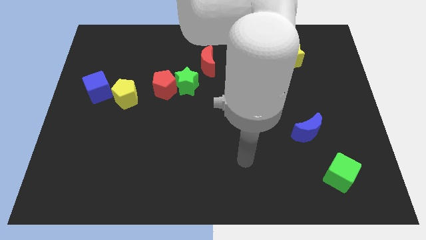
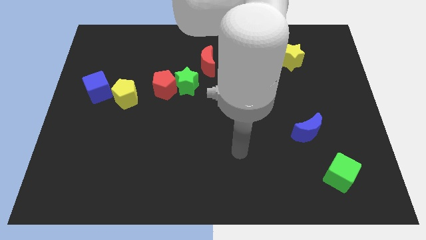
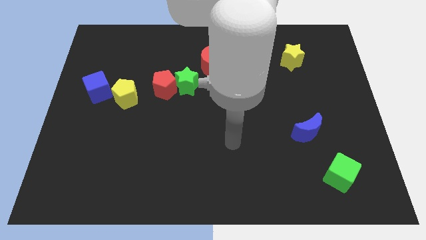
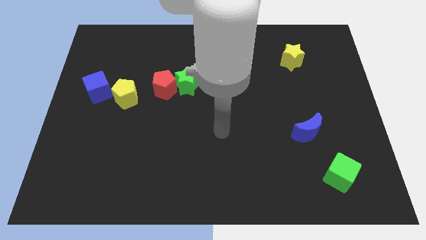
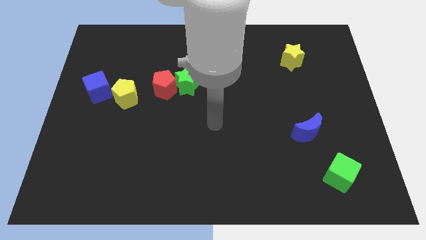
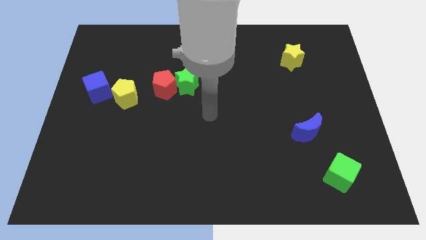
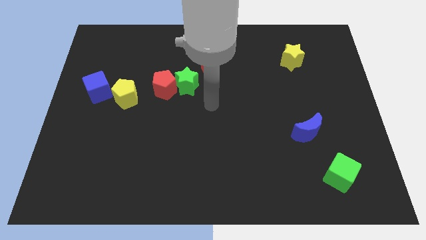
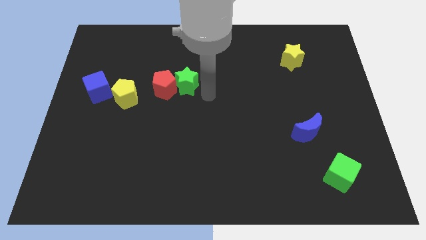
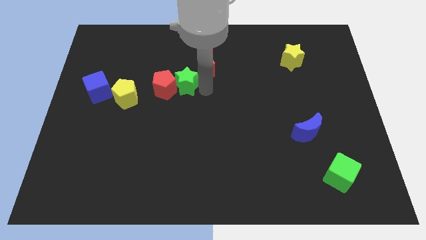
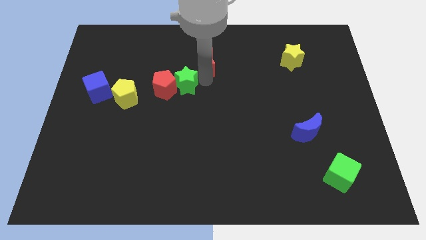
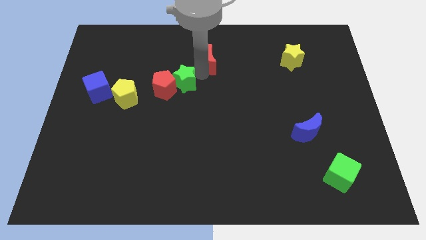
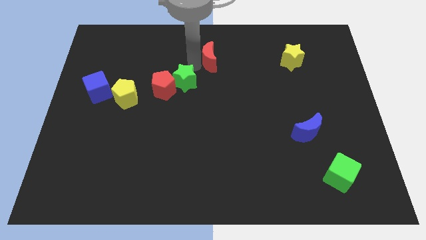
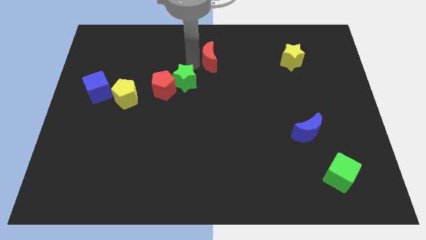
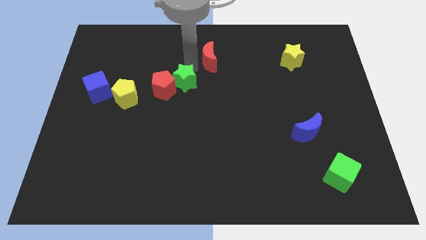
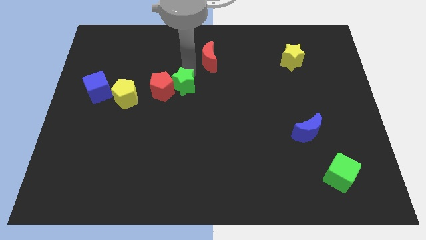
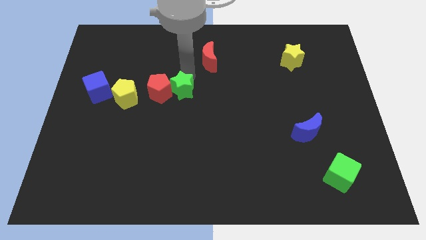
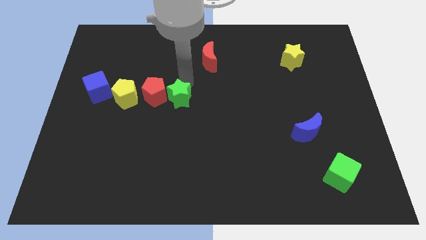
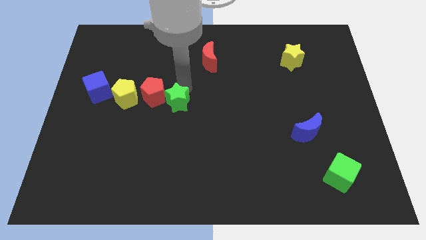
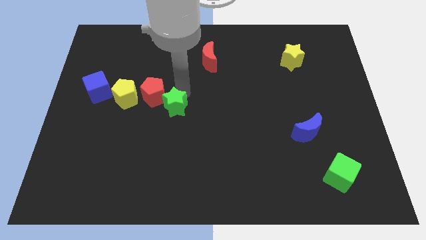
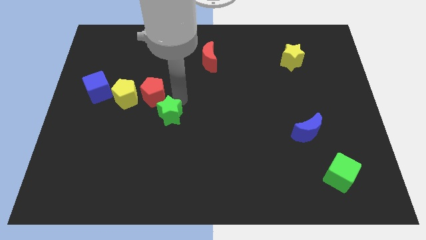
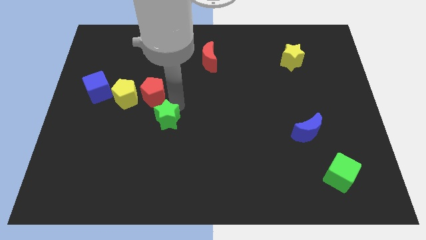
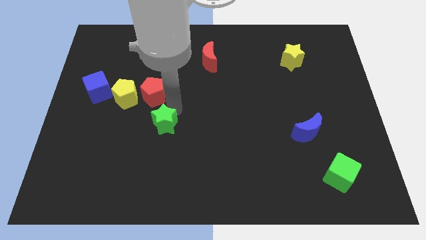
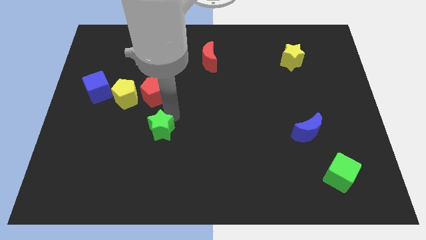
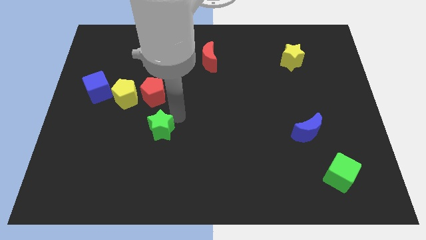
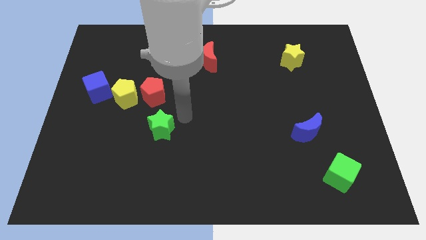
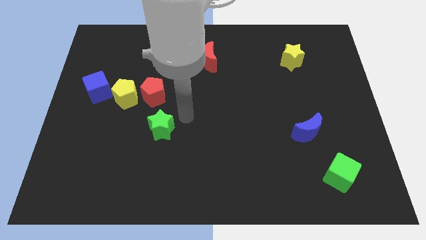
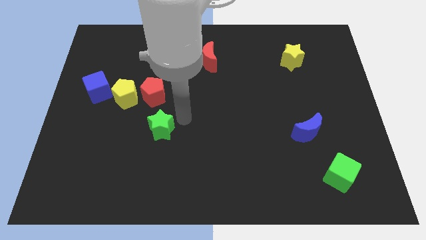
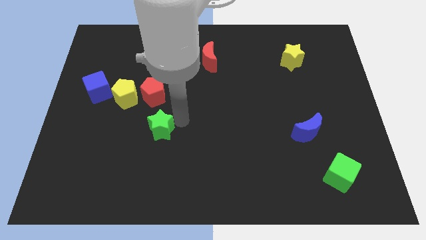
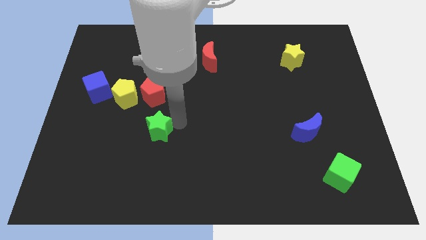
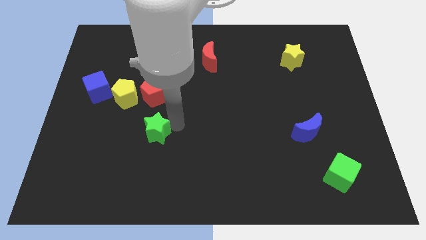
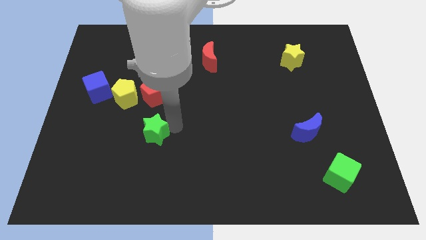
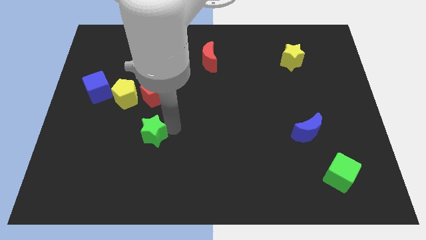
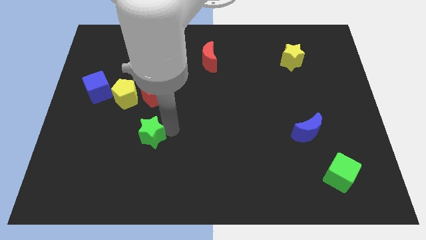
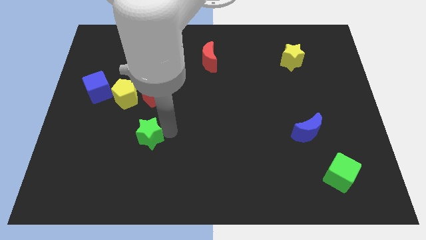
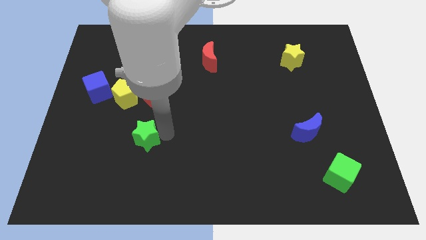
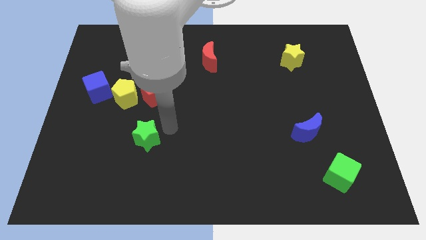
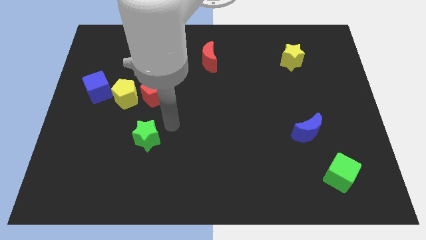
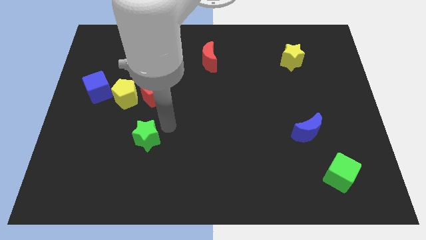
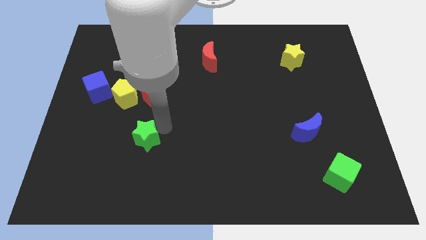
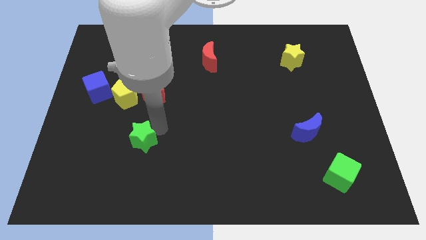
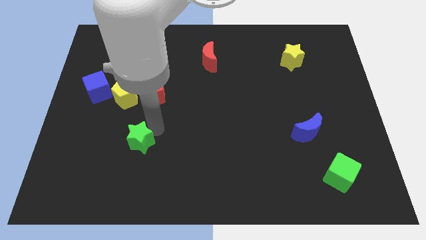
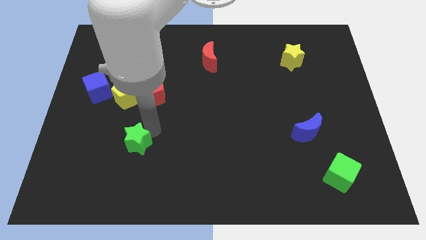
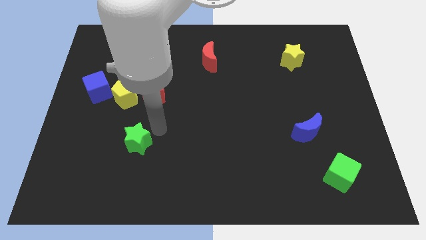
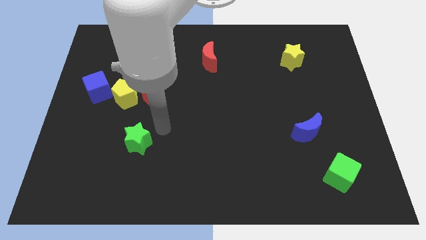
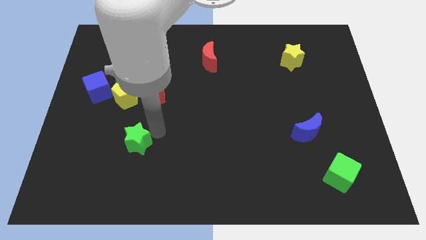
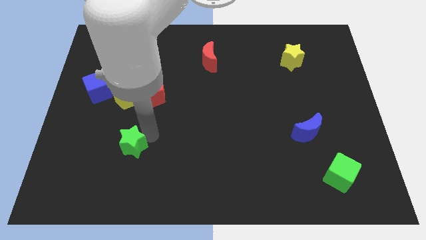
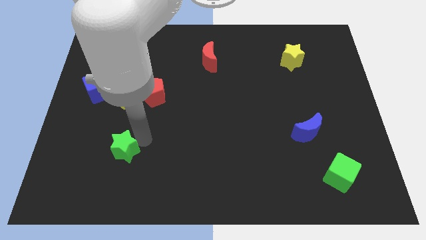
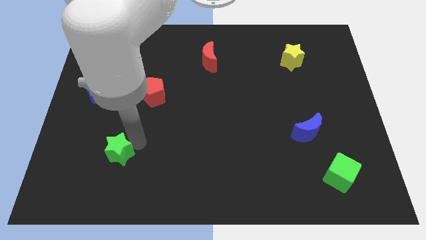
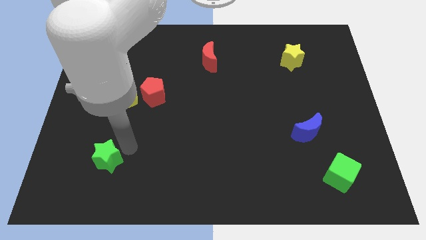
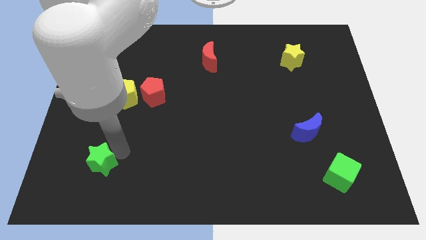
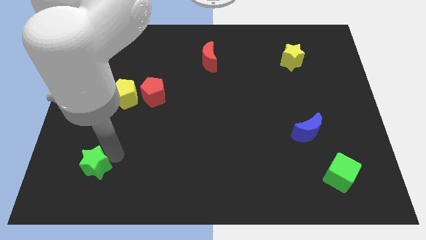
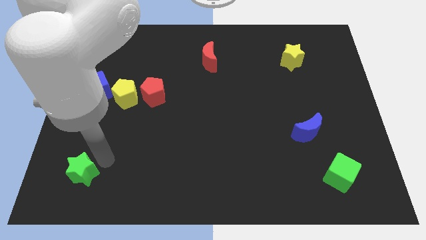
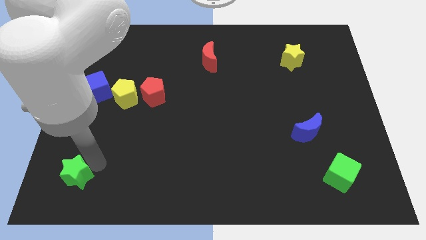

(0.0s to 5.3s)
move the green star to the bottom left corner

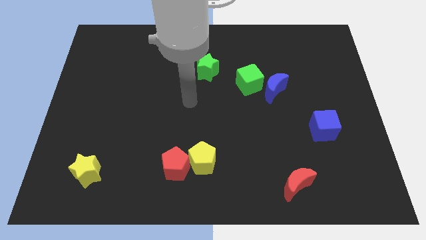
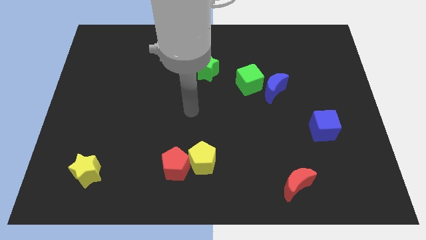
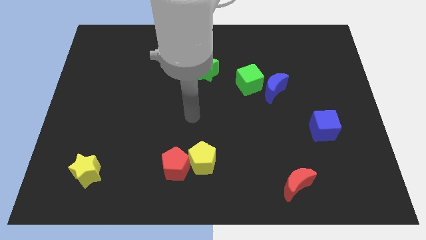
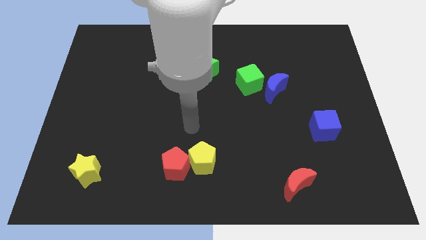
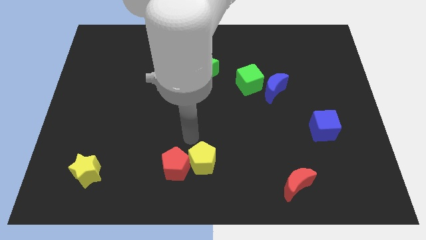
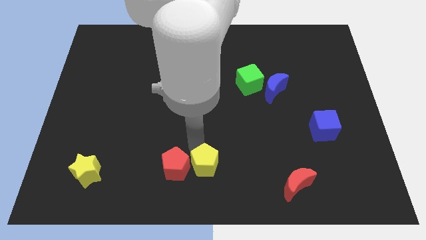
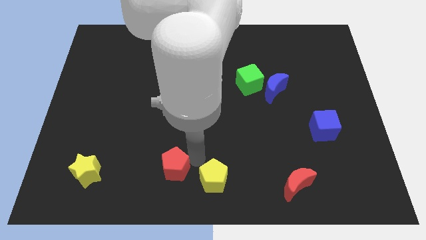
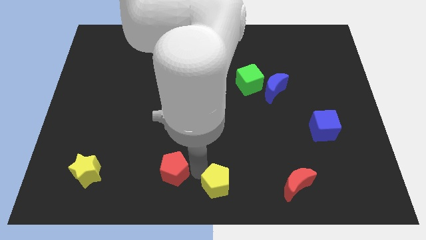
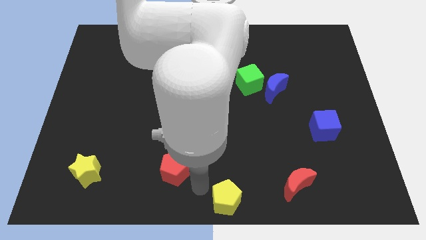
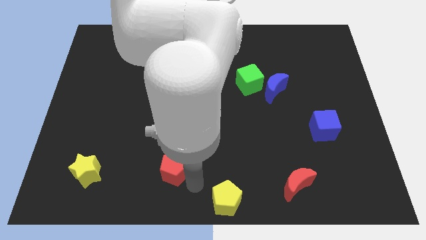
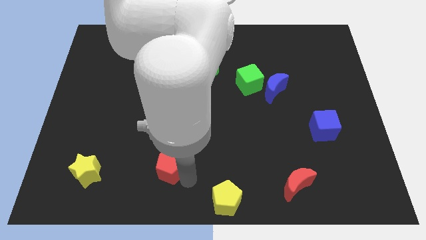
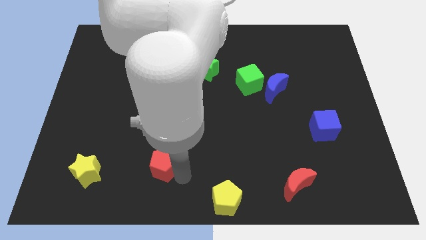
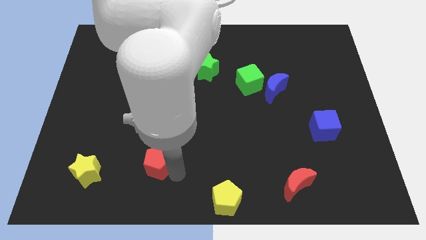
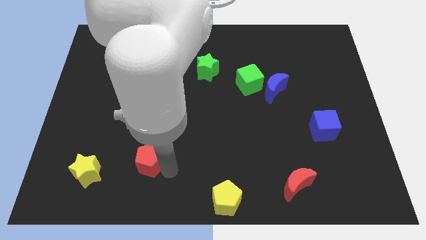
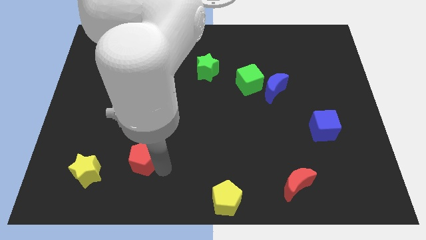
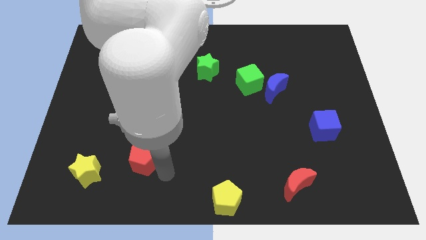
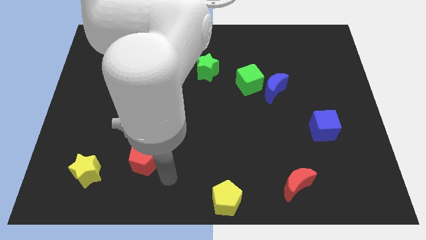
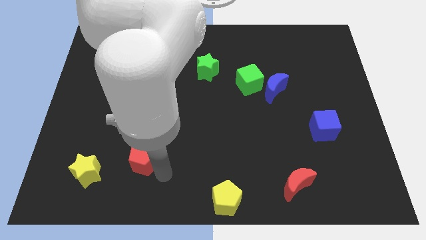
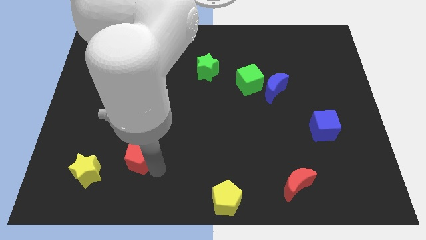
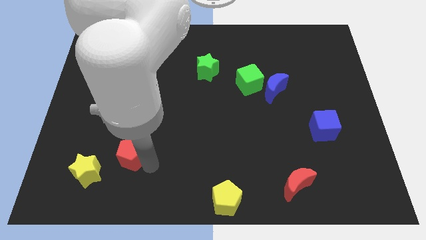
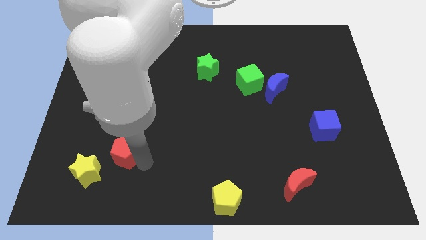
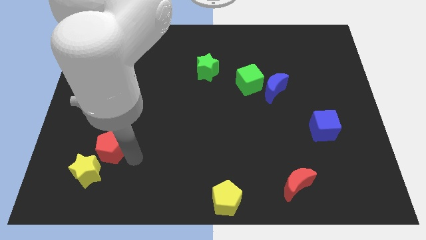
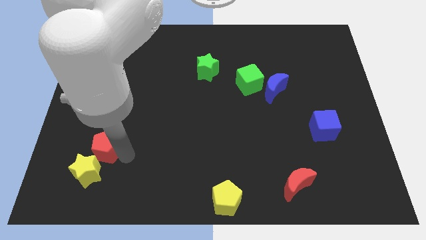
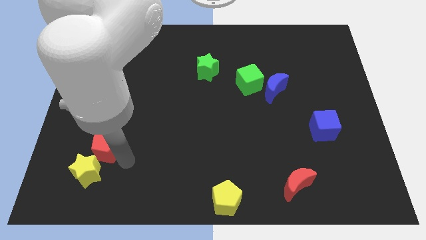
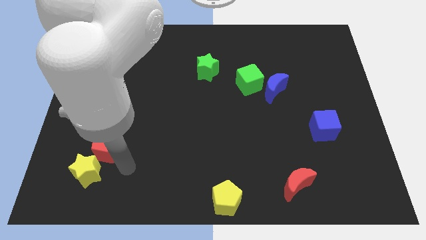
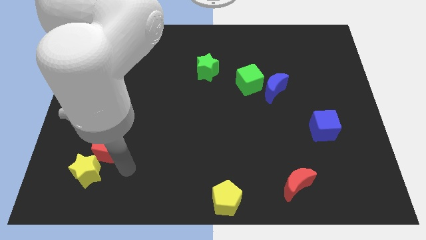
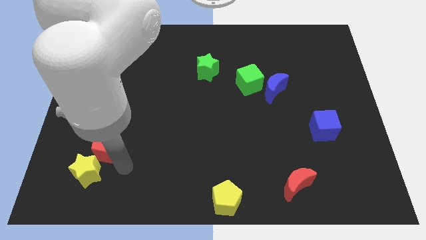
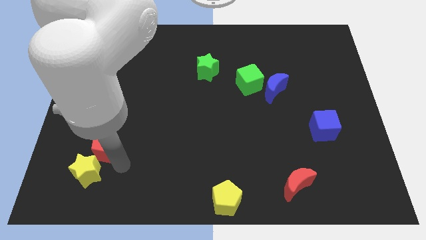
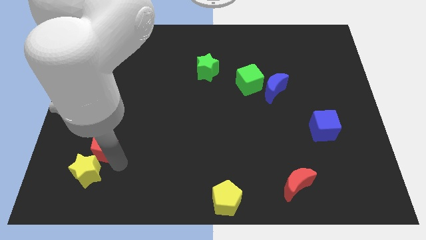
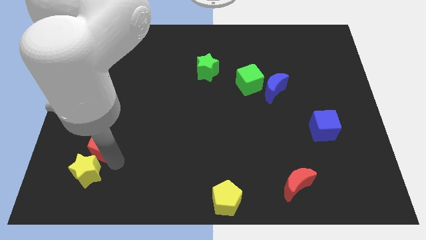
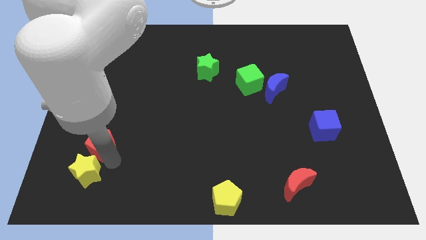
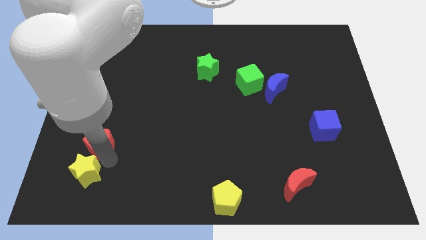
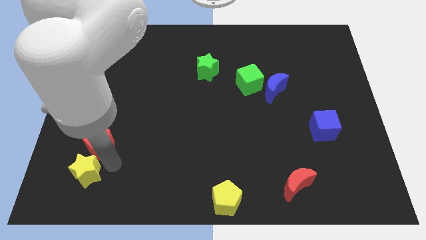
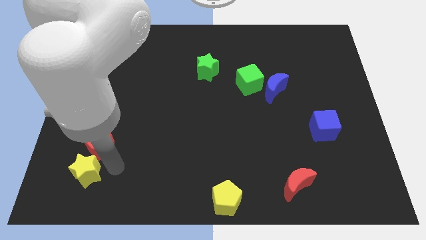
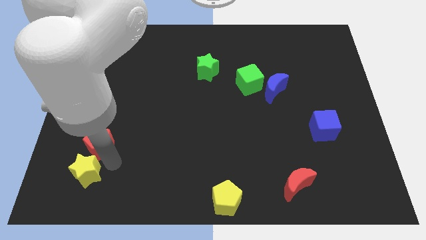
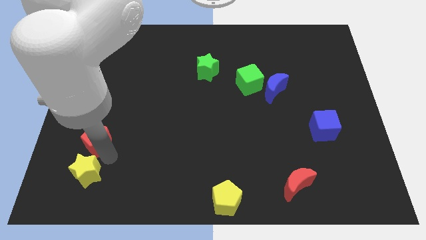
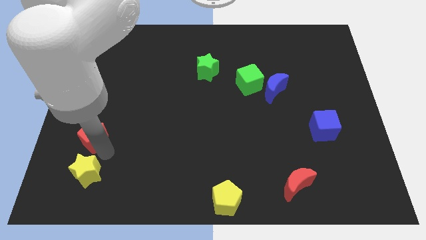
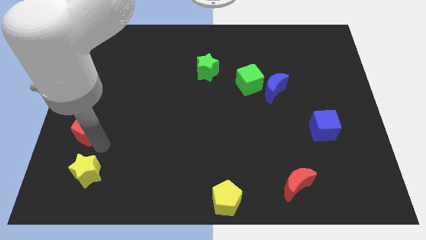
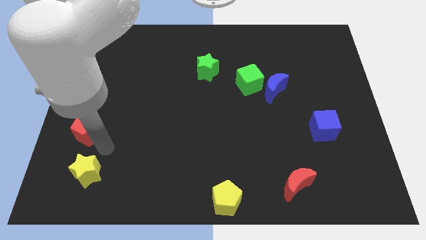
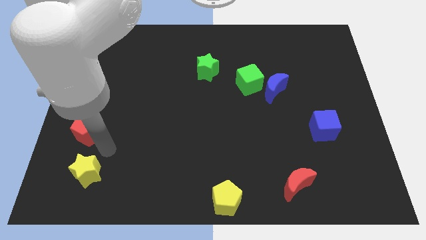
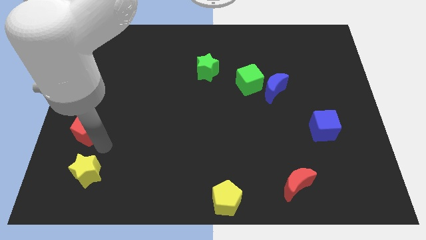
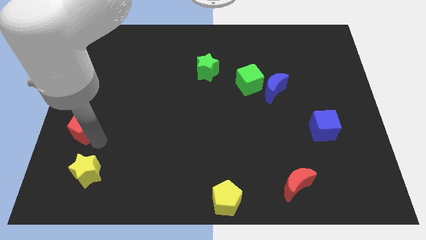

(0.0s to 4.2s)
push the red pentagon to the center left
